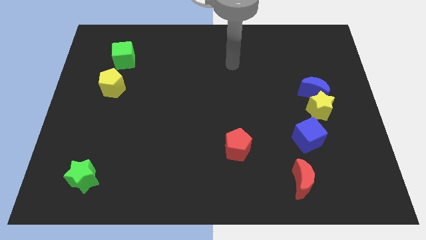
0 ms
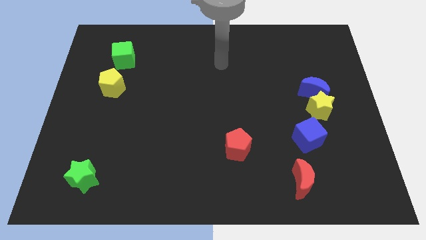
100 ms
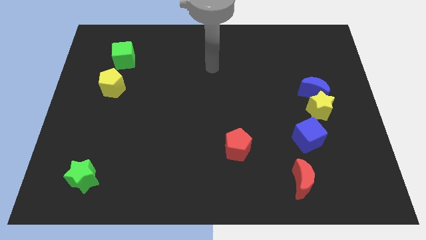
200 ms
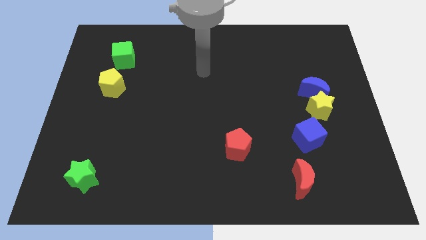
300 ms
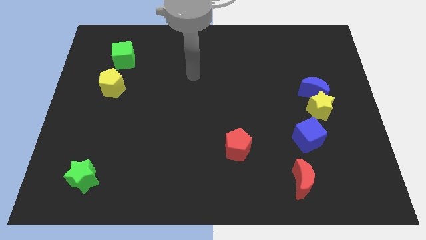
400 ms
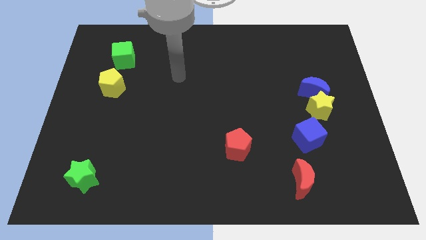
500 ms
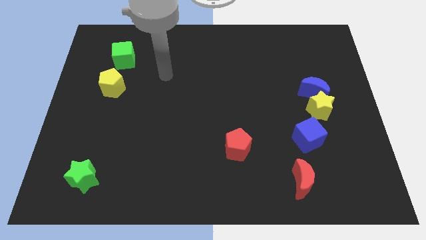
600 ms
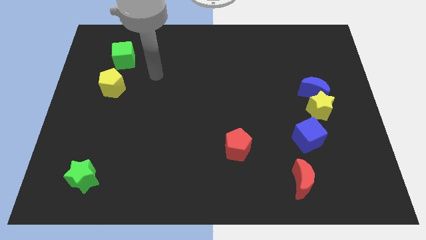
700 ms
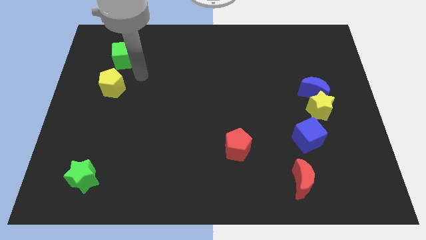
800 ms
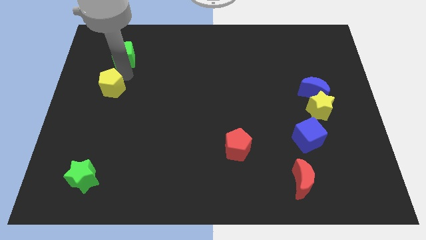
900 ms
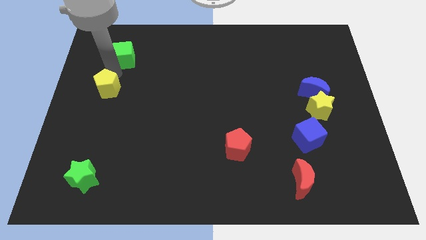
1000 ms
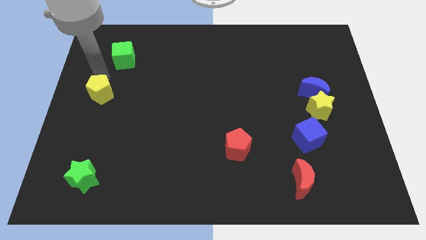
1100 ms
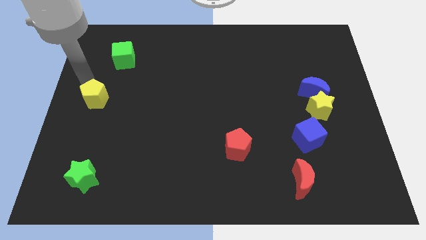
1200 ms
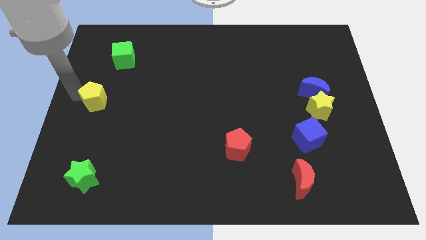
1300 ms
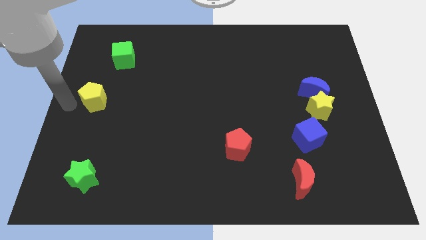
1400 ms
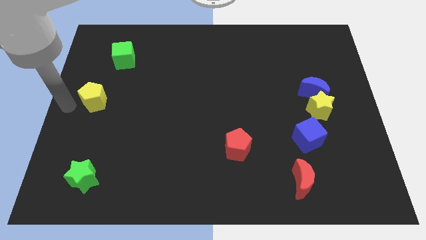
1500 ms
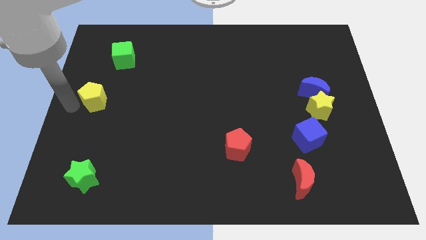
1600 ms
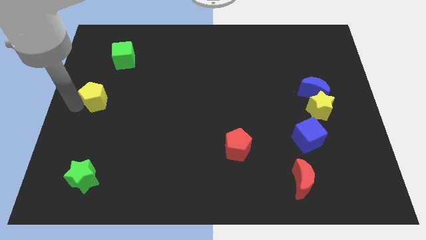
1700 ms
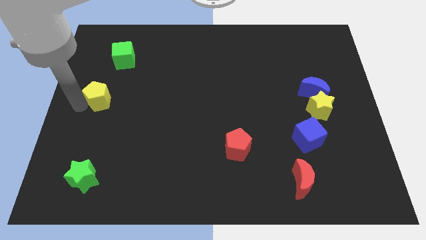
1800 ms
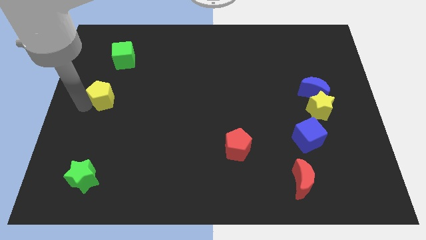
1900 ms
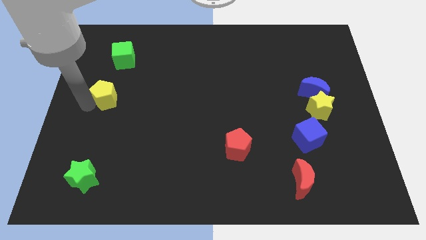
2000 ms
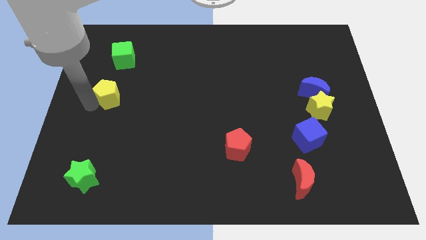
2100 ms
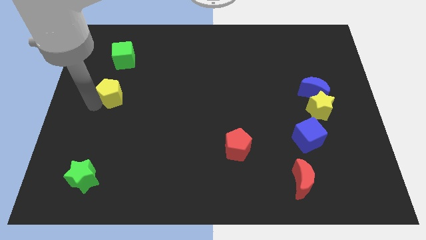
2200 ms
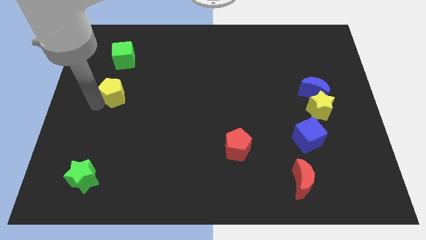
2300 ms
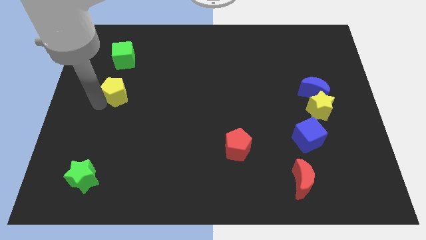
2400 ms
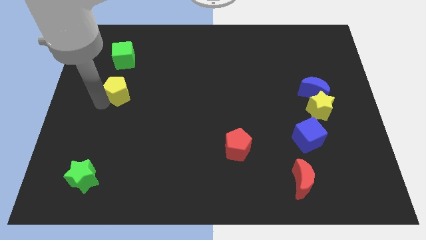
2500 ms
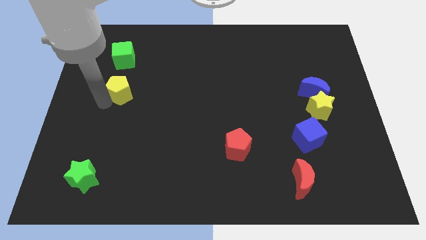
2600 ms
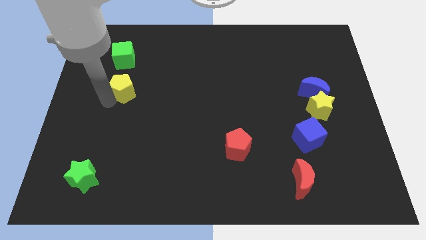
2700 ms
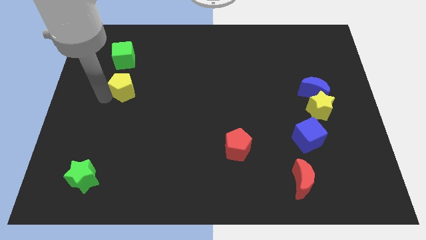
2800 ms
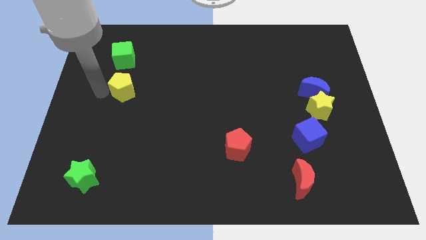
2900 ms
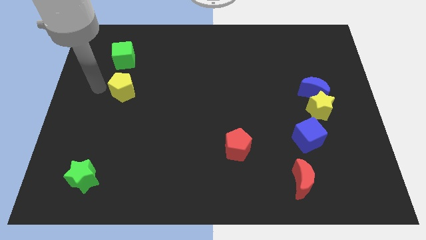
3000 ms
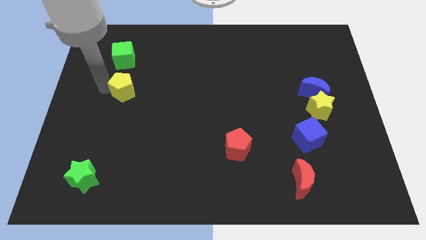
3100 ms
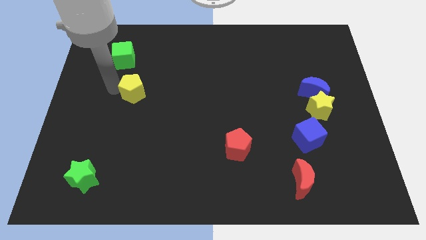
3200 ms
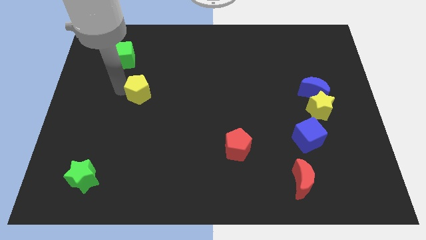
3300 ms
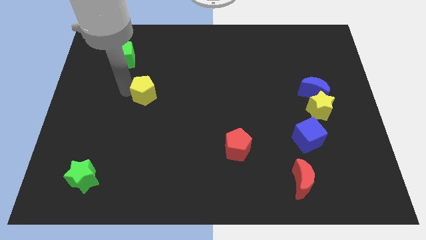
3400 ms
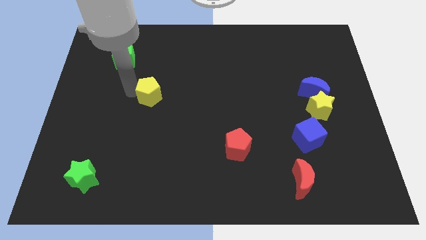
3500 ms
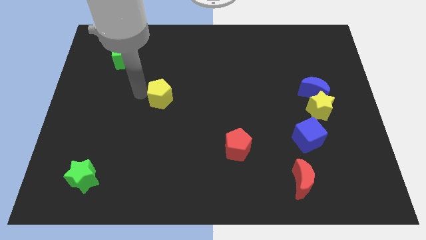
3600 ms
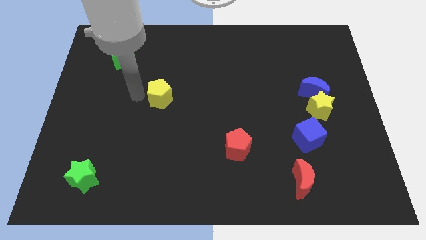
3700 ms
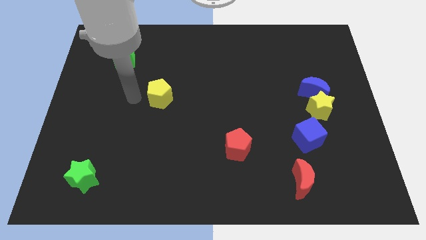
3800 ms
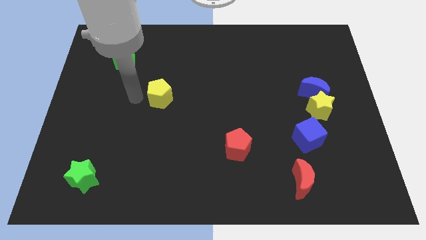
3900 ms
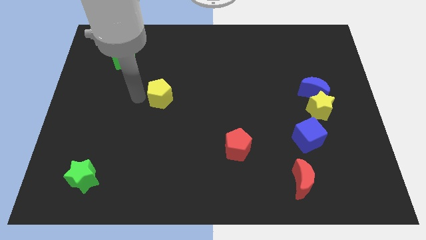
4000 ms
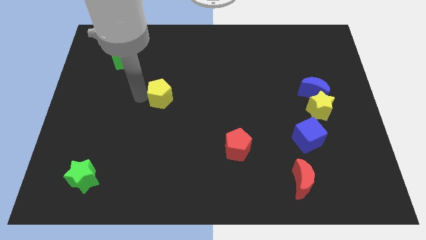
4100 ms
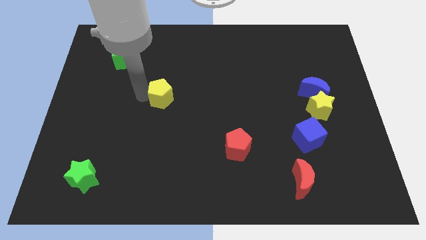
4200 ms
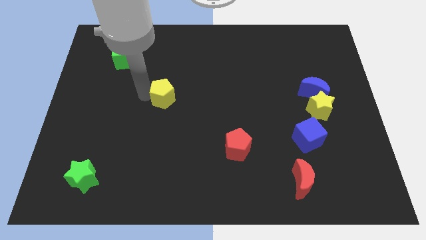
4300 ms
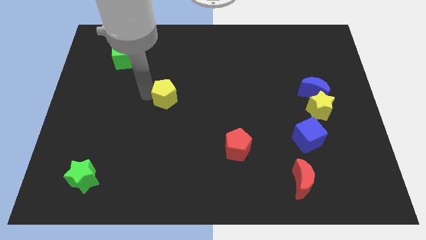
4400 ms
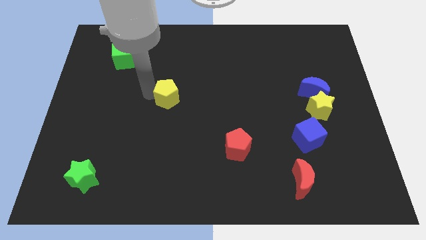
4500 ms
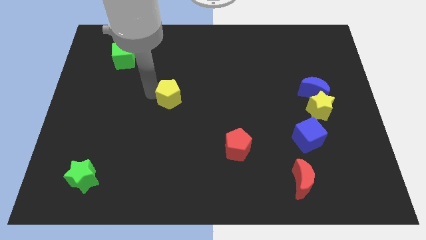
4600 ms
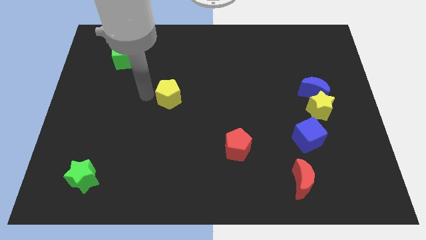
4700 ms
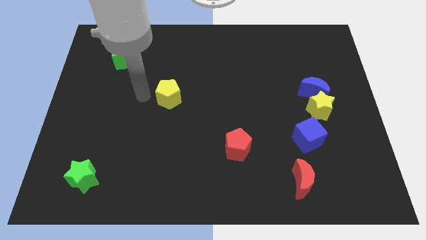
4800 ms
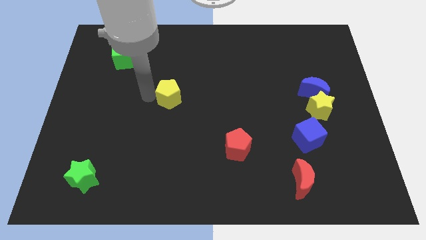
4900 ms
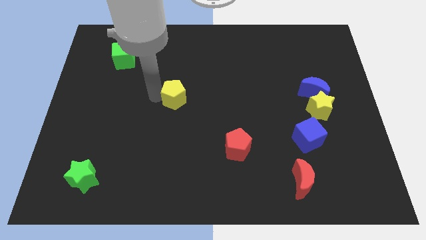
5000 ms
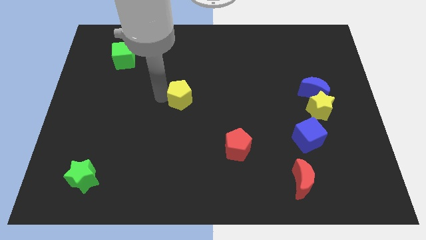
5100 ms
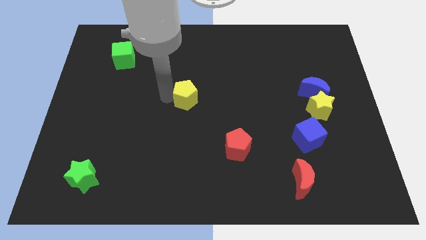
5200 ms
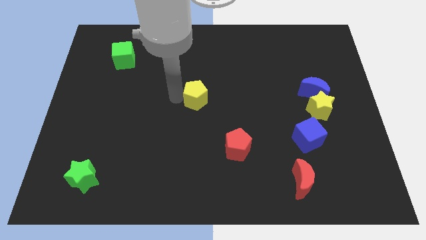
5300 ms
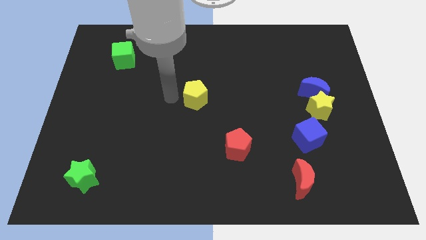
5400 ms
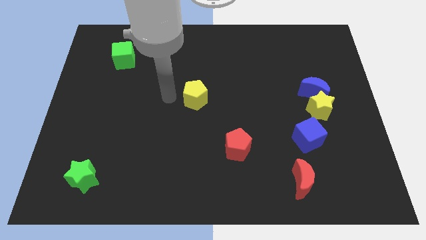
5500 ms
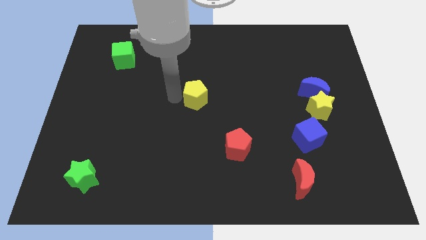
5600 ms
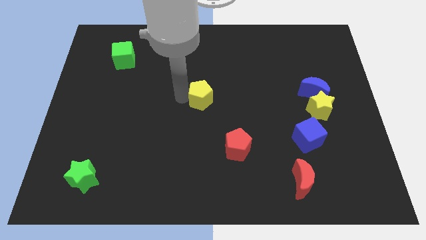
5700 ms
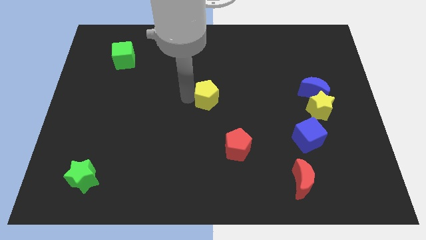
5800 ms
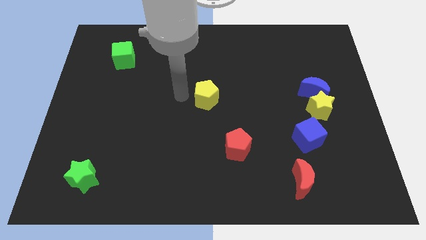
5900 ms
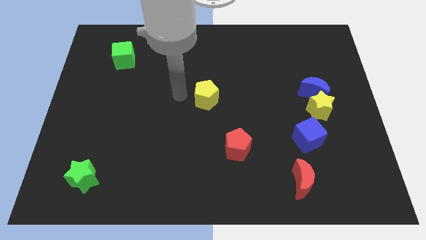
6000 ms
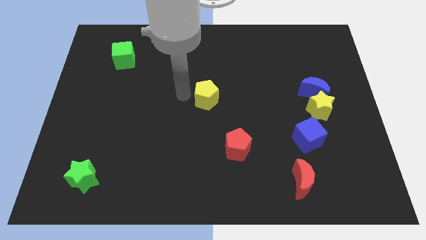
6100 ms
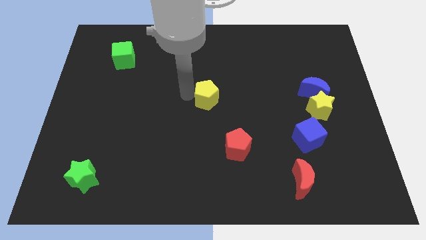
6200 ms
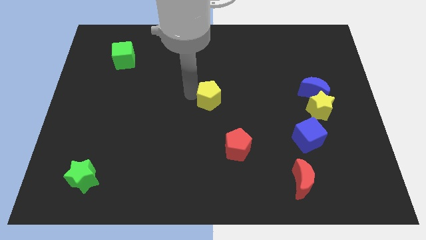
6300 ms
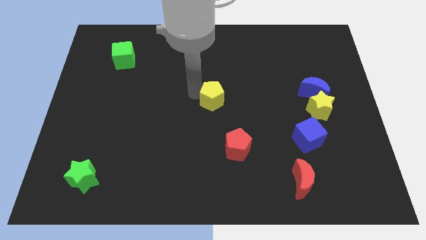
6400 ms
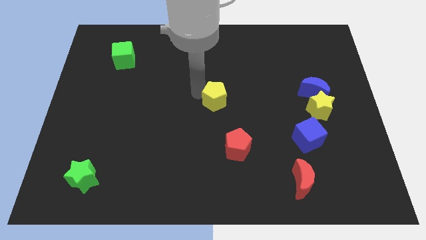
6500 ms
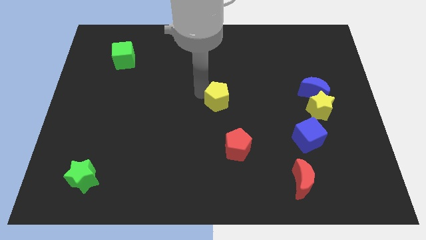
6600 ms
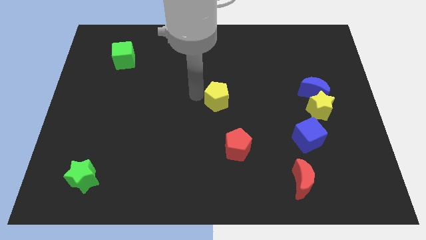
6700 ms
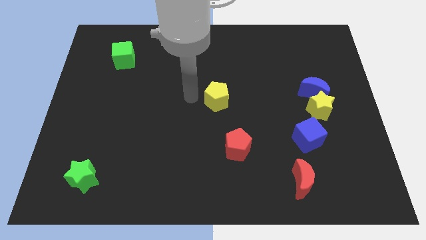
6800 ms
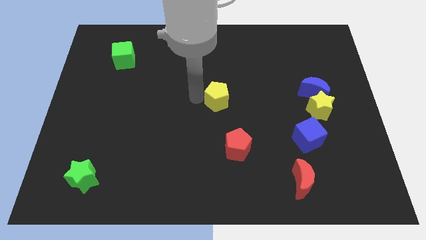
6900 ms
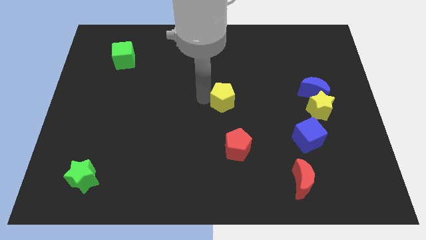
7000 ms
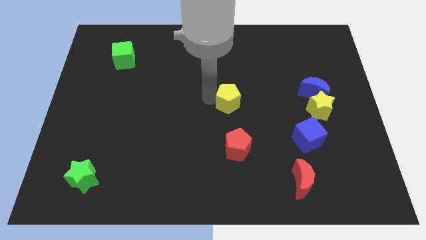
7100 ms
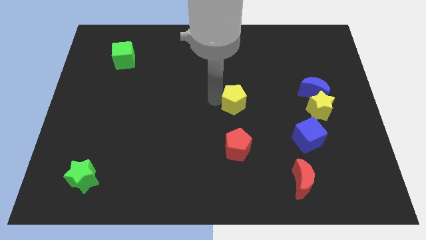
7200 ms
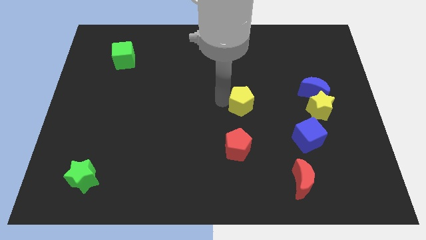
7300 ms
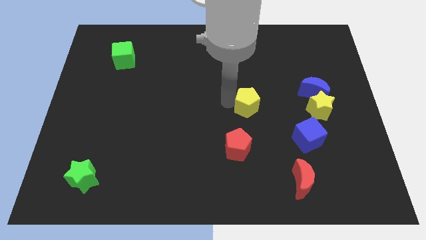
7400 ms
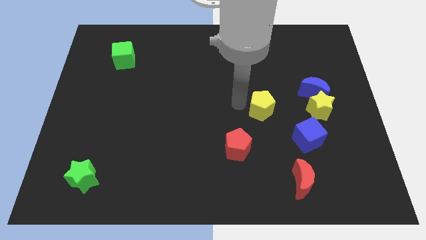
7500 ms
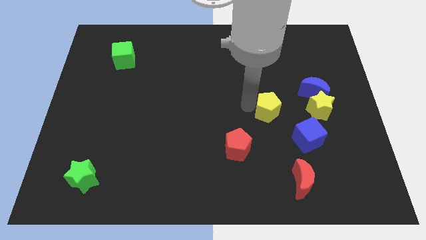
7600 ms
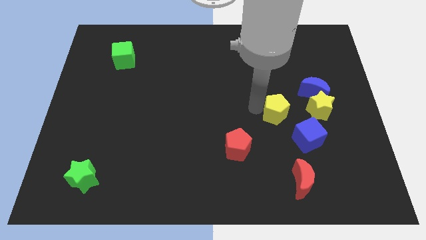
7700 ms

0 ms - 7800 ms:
push the yellow pentagon to the bottom left of the blue moon
